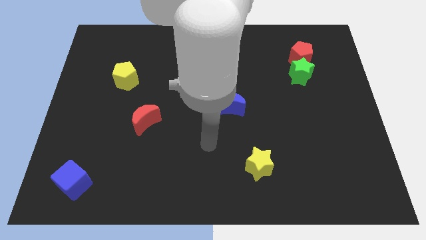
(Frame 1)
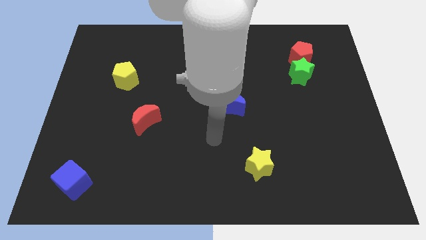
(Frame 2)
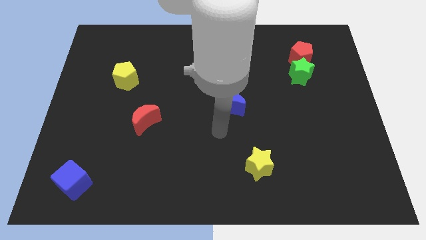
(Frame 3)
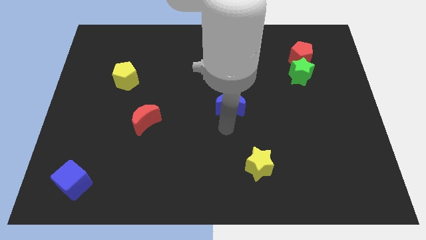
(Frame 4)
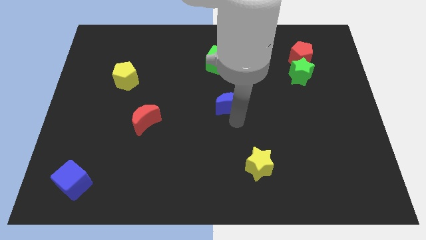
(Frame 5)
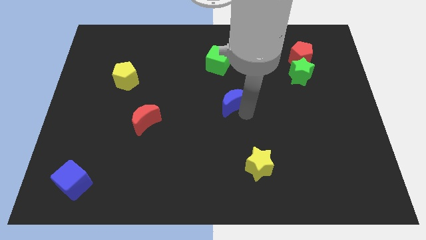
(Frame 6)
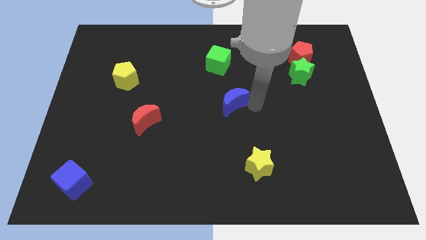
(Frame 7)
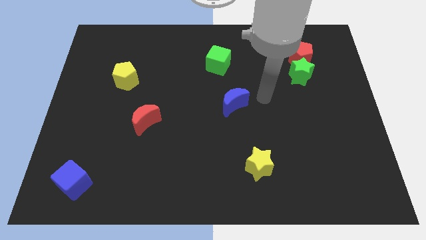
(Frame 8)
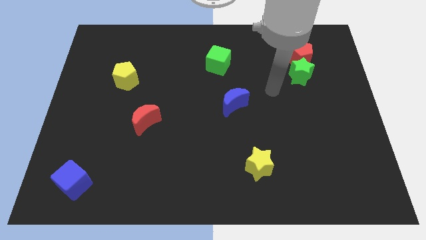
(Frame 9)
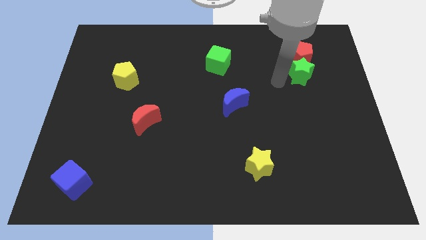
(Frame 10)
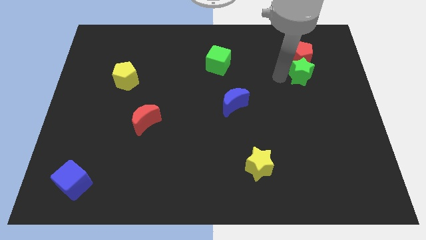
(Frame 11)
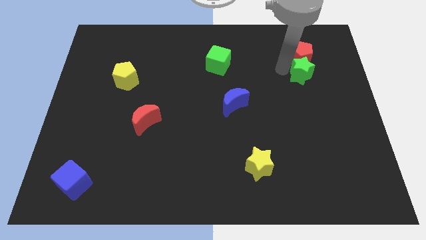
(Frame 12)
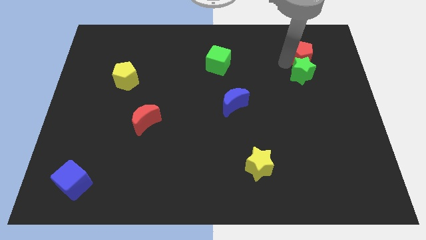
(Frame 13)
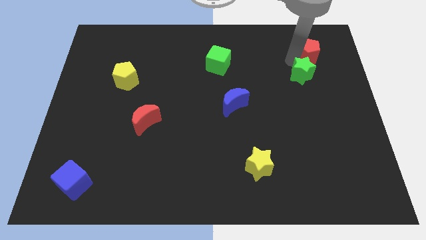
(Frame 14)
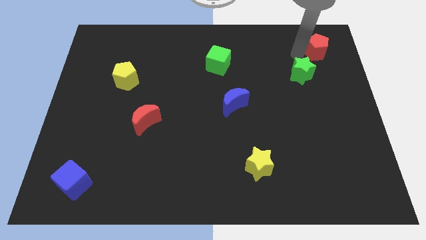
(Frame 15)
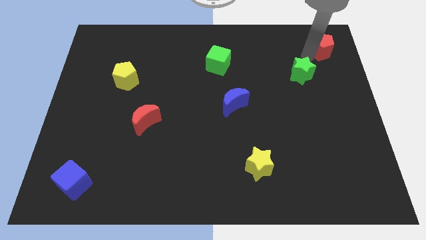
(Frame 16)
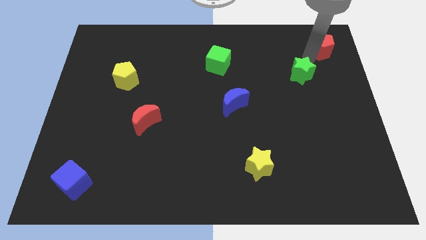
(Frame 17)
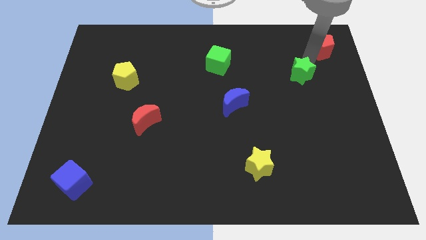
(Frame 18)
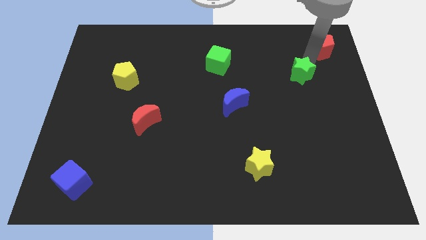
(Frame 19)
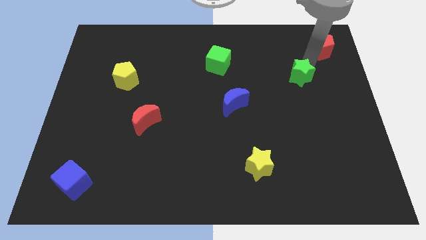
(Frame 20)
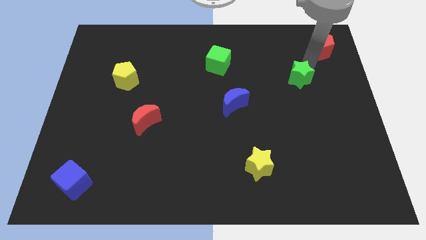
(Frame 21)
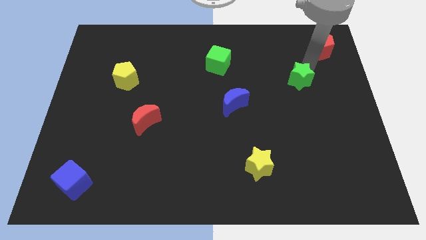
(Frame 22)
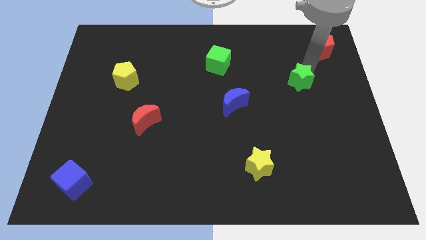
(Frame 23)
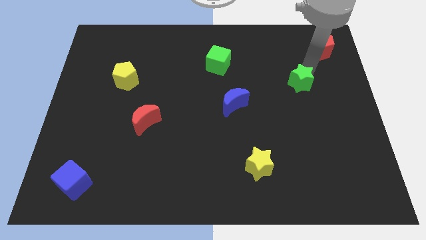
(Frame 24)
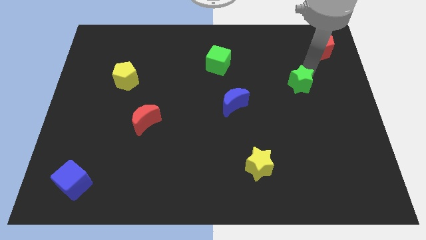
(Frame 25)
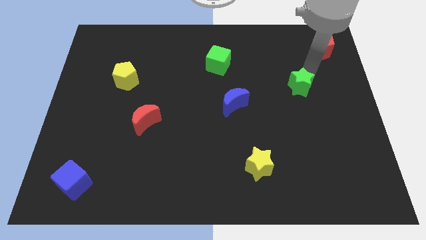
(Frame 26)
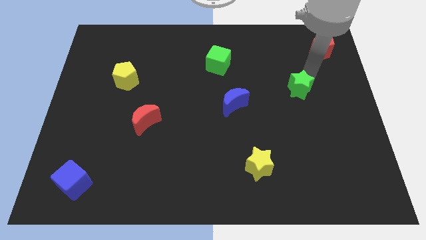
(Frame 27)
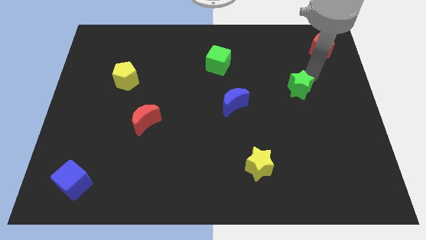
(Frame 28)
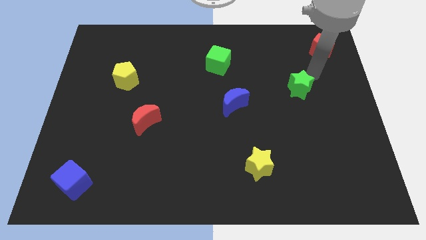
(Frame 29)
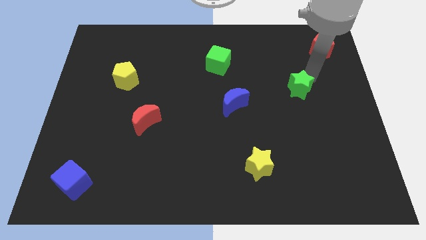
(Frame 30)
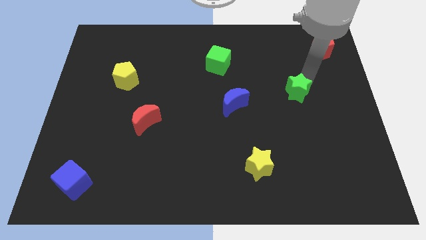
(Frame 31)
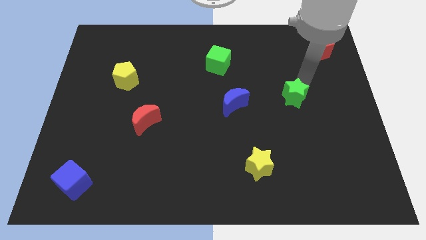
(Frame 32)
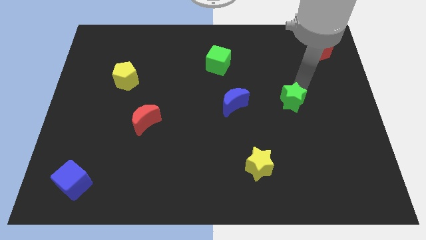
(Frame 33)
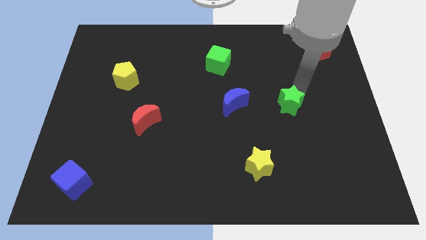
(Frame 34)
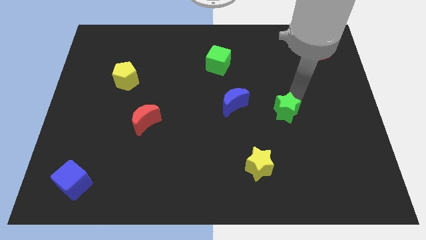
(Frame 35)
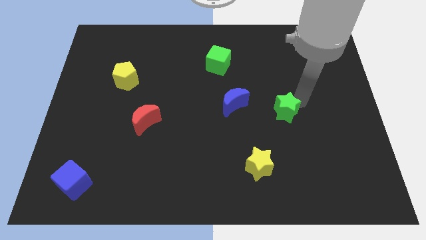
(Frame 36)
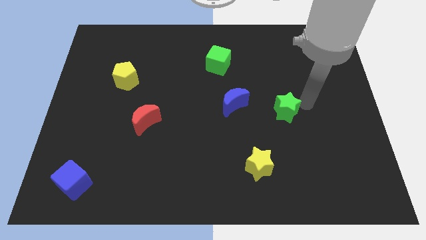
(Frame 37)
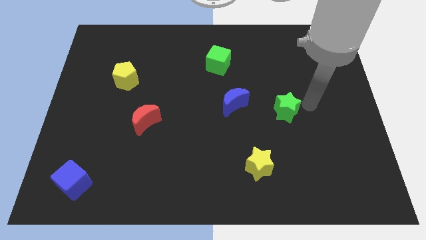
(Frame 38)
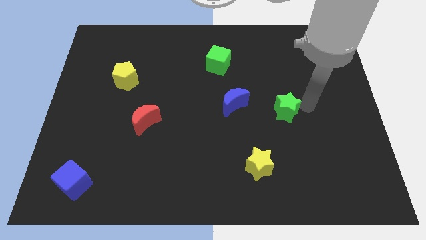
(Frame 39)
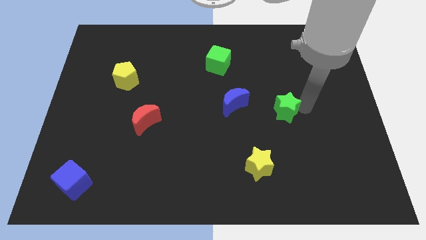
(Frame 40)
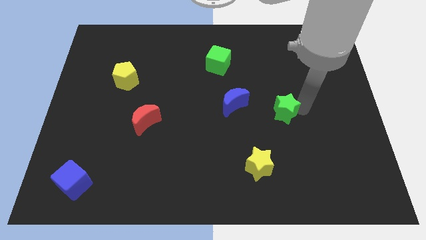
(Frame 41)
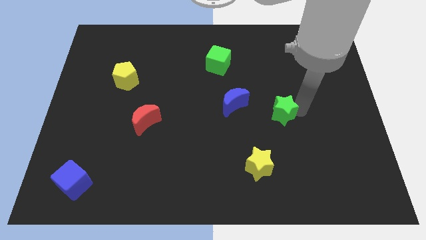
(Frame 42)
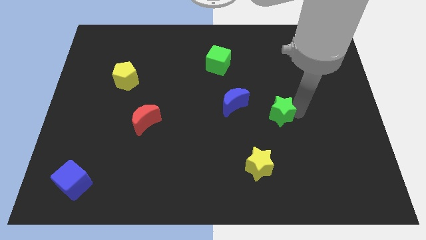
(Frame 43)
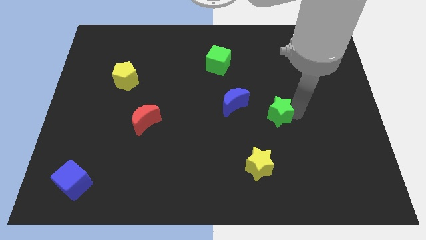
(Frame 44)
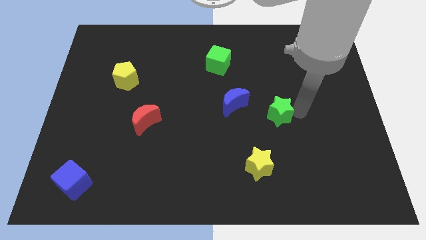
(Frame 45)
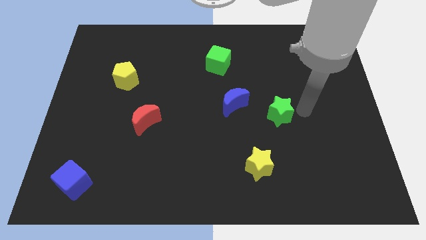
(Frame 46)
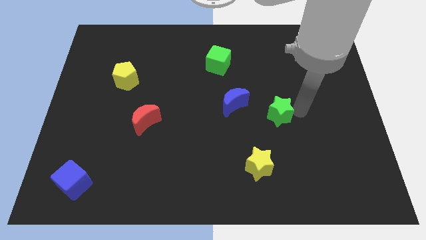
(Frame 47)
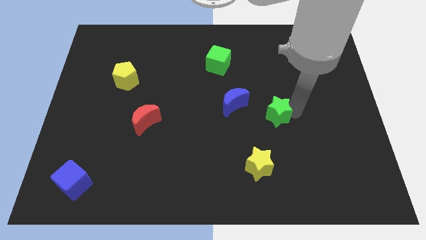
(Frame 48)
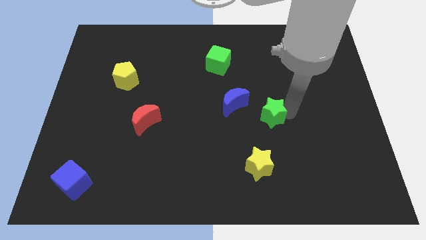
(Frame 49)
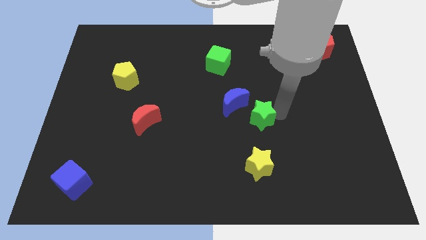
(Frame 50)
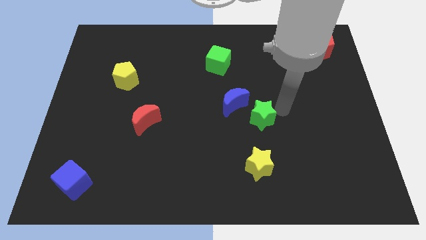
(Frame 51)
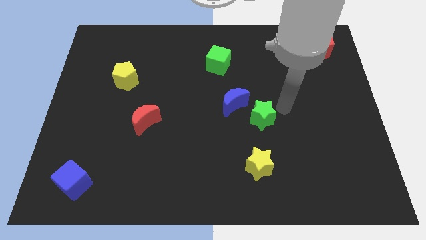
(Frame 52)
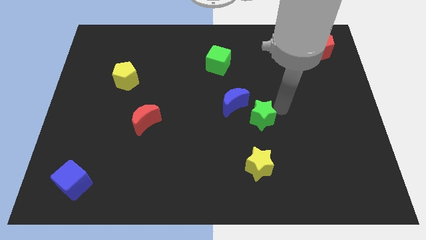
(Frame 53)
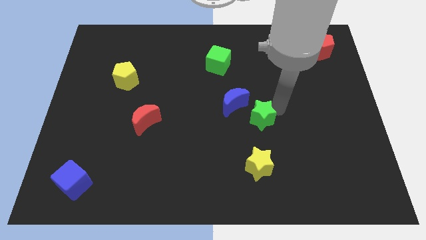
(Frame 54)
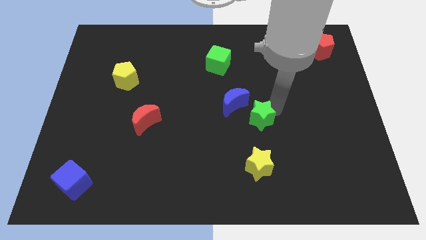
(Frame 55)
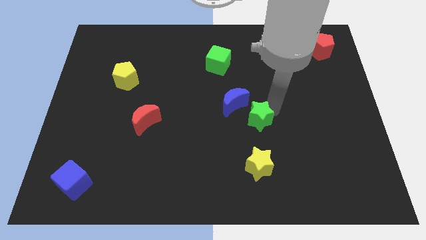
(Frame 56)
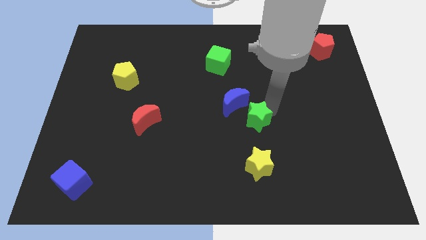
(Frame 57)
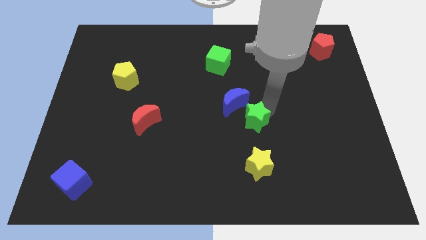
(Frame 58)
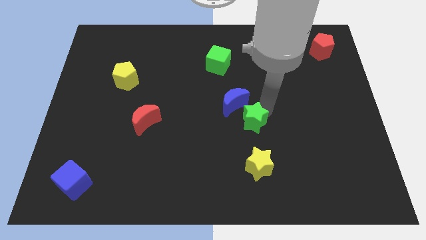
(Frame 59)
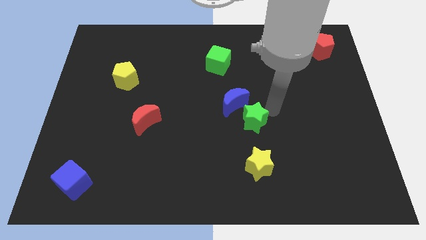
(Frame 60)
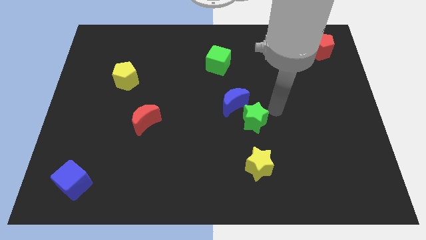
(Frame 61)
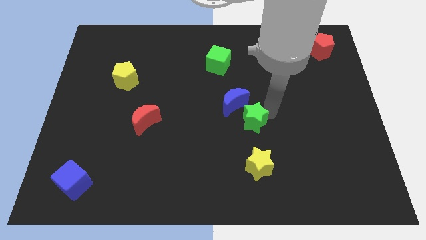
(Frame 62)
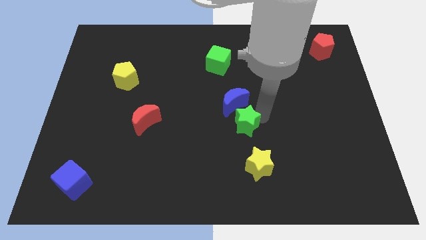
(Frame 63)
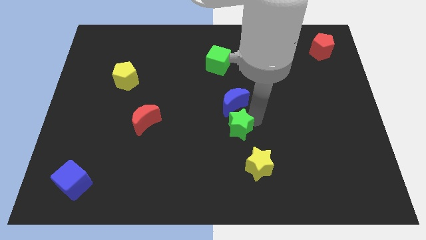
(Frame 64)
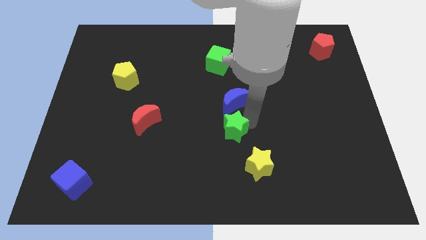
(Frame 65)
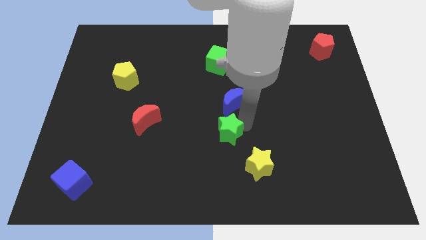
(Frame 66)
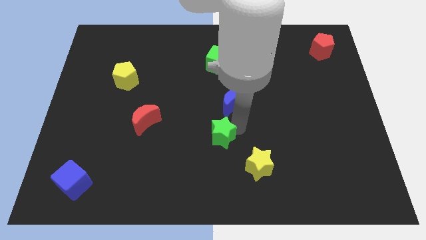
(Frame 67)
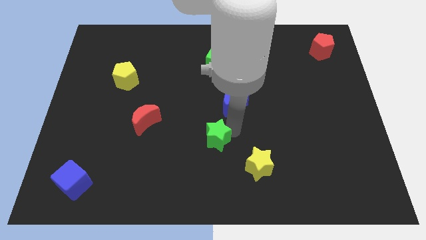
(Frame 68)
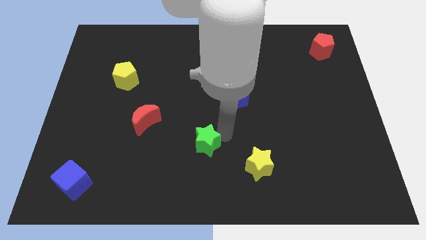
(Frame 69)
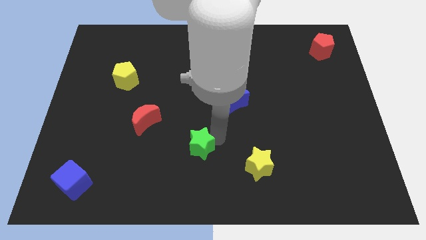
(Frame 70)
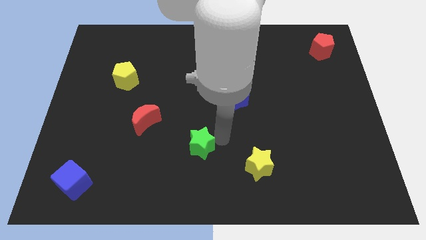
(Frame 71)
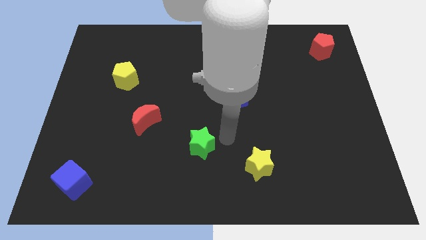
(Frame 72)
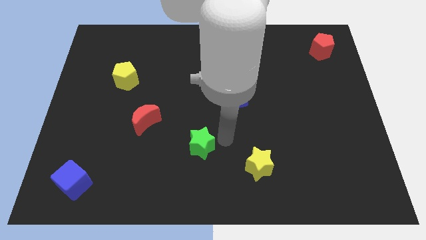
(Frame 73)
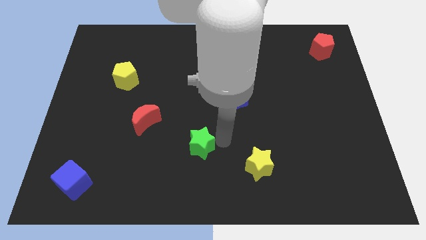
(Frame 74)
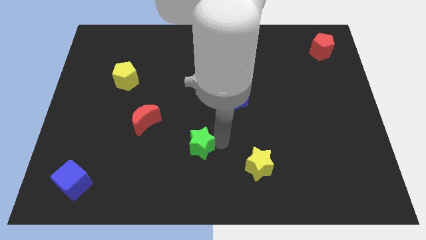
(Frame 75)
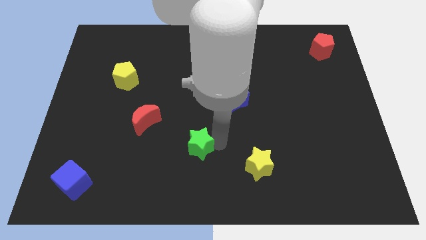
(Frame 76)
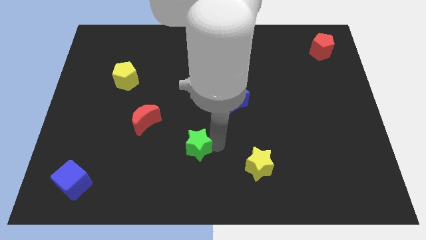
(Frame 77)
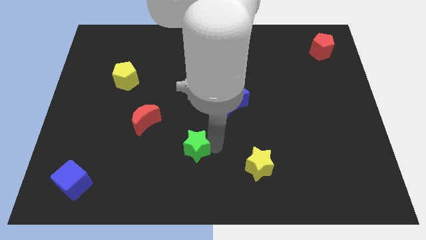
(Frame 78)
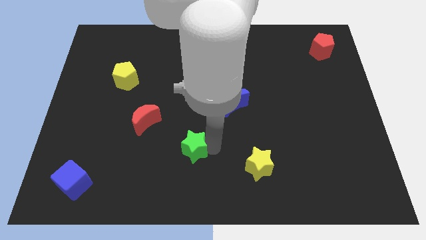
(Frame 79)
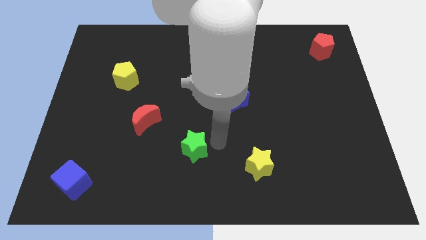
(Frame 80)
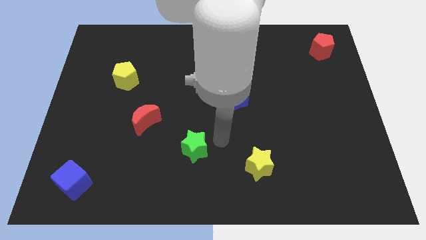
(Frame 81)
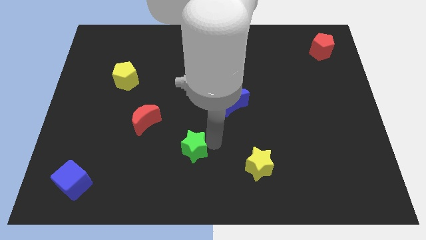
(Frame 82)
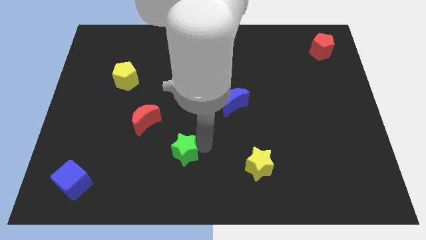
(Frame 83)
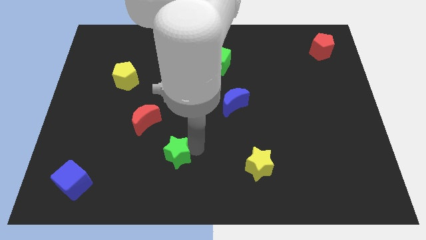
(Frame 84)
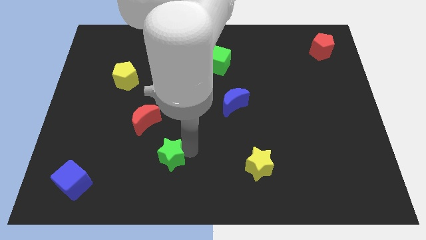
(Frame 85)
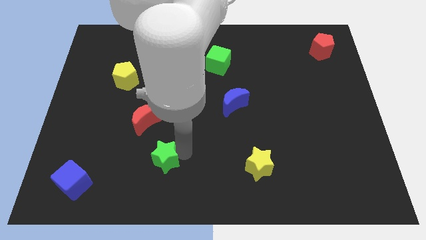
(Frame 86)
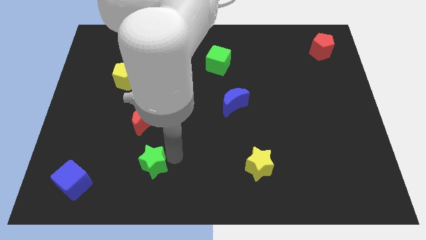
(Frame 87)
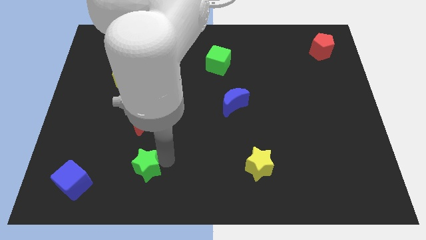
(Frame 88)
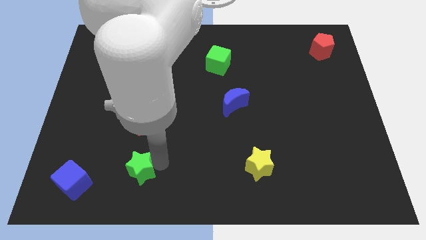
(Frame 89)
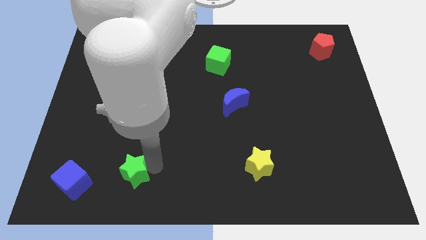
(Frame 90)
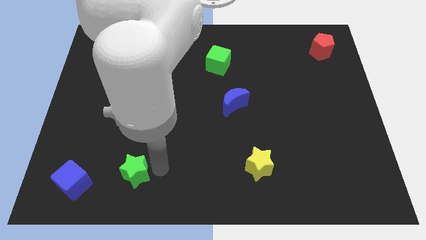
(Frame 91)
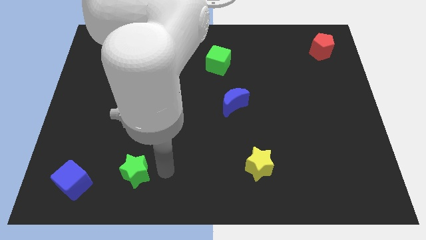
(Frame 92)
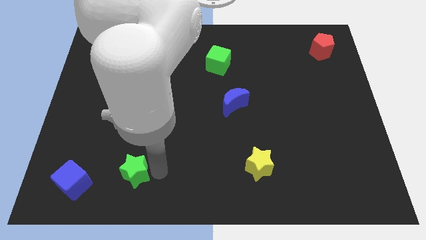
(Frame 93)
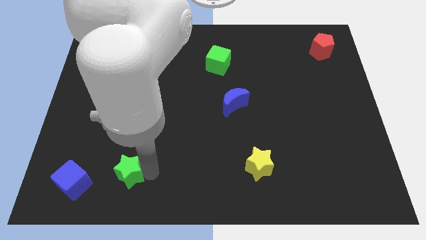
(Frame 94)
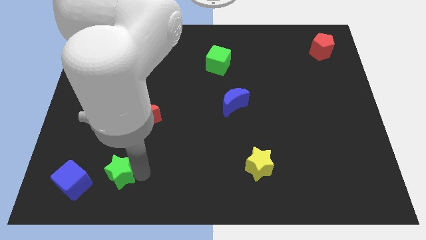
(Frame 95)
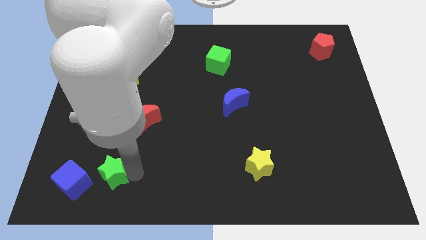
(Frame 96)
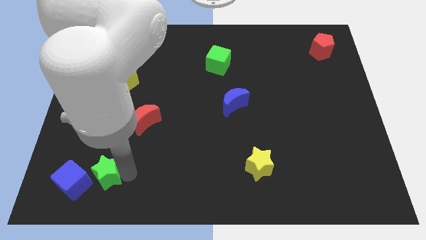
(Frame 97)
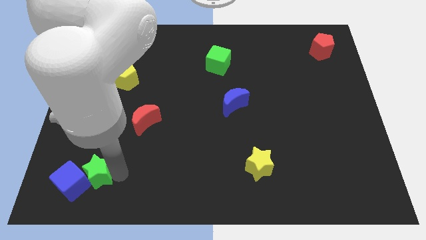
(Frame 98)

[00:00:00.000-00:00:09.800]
push the green star to the blue cube
